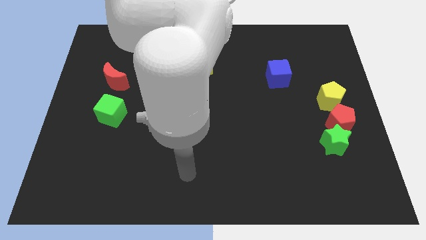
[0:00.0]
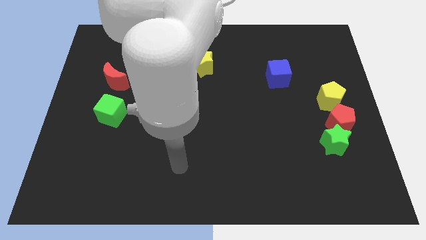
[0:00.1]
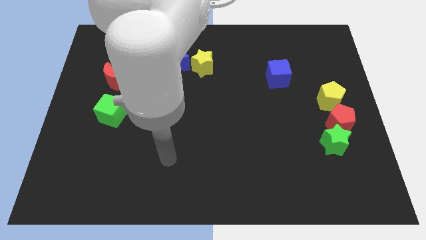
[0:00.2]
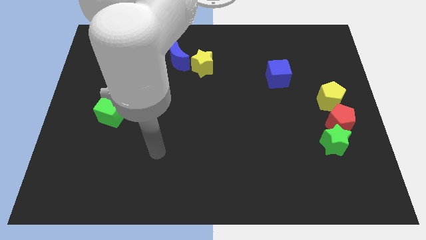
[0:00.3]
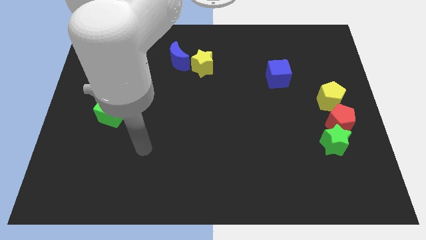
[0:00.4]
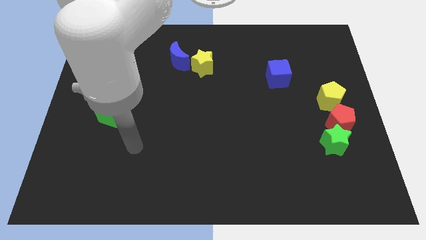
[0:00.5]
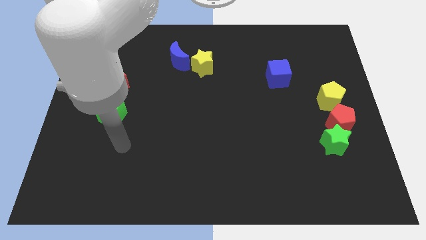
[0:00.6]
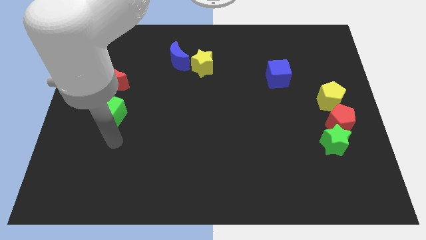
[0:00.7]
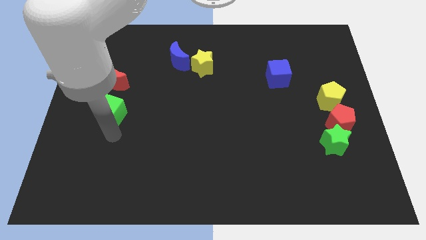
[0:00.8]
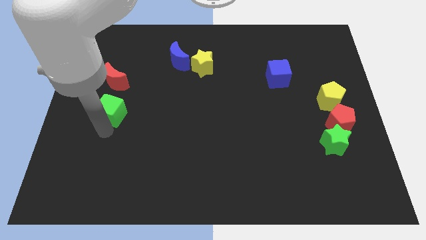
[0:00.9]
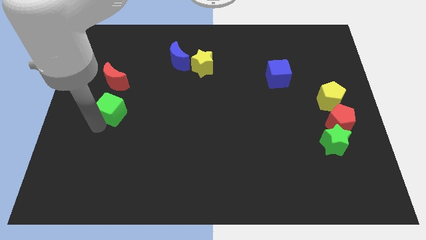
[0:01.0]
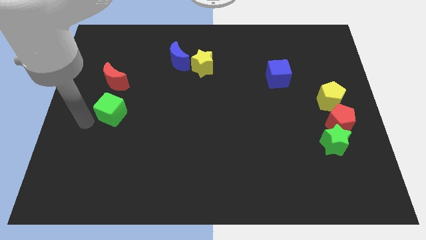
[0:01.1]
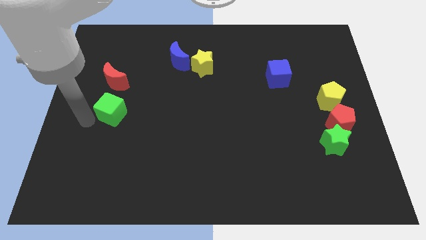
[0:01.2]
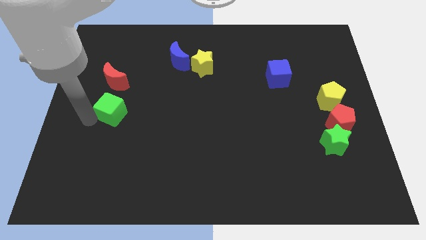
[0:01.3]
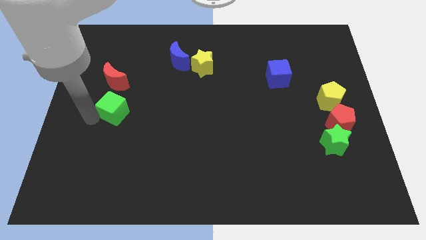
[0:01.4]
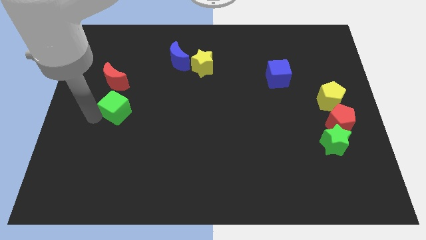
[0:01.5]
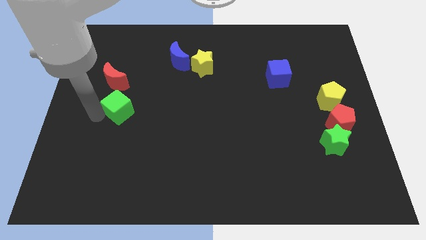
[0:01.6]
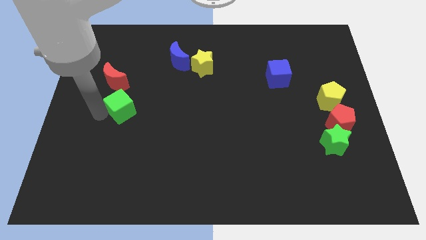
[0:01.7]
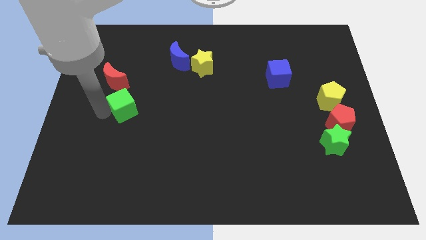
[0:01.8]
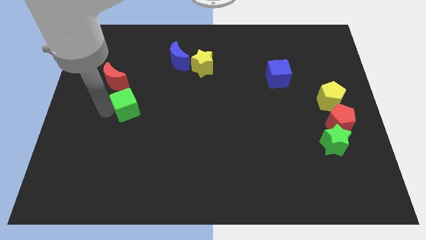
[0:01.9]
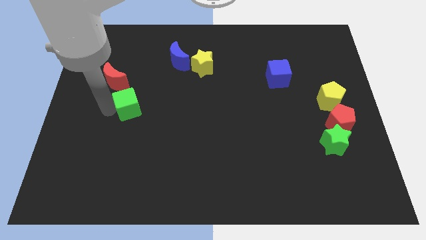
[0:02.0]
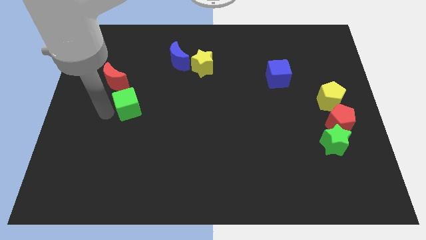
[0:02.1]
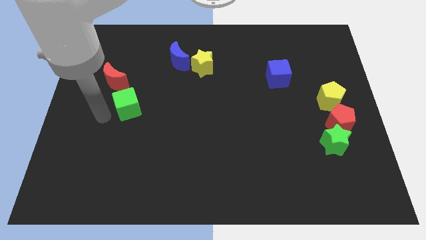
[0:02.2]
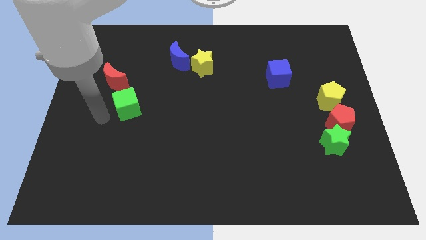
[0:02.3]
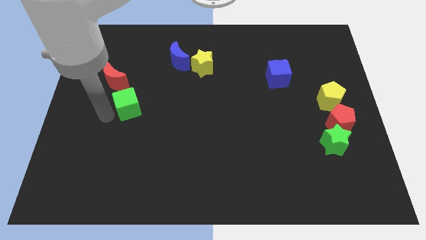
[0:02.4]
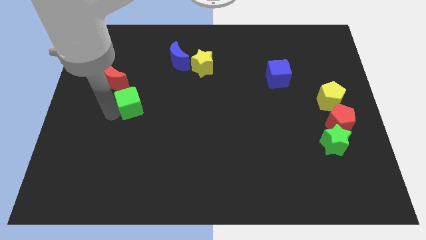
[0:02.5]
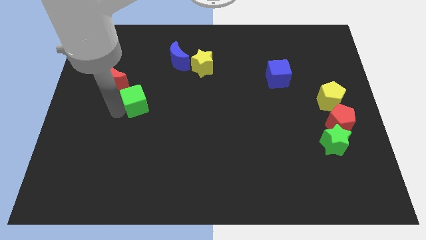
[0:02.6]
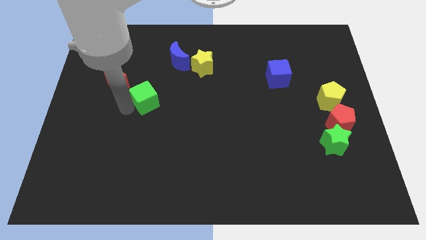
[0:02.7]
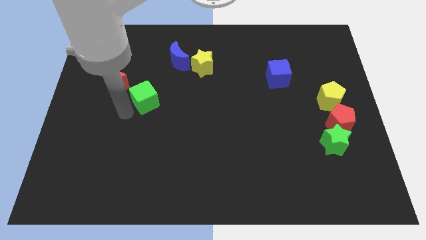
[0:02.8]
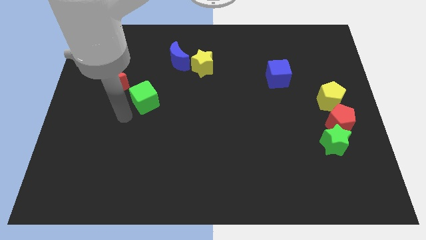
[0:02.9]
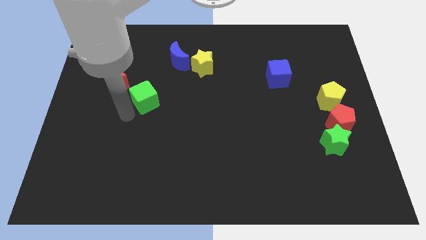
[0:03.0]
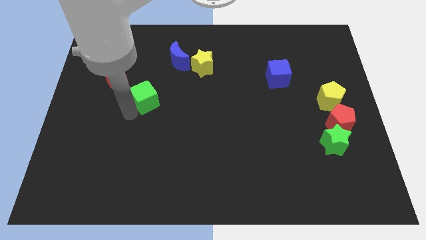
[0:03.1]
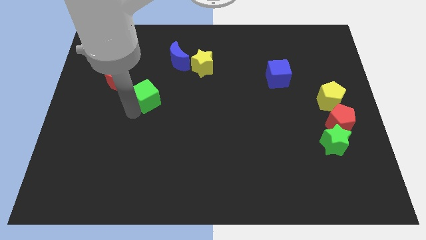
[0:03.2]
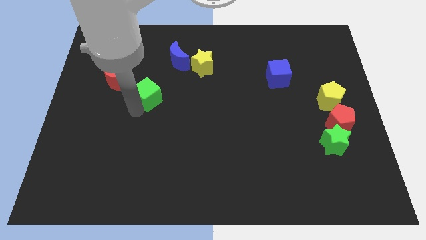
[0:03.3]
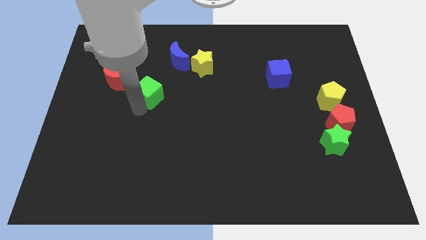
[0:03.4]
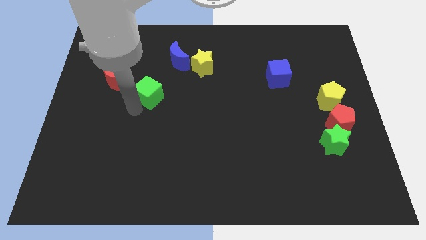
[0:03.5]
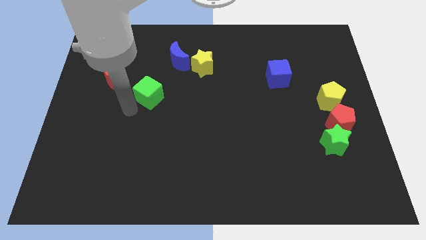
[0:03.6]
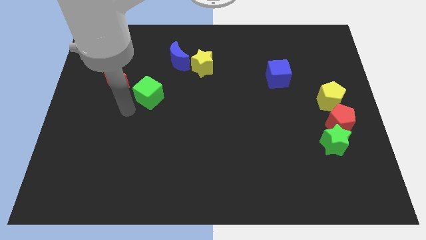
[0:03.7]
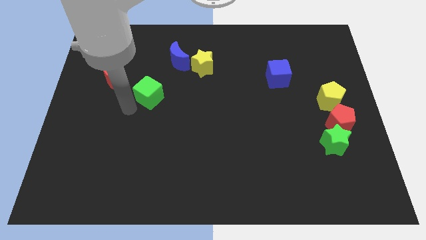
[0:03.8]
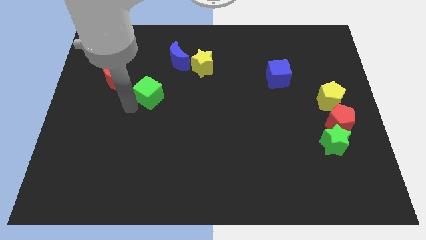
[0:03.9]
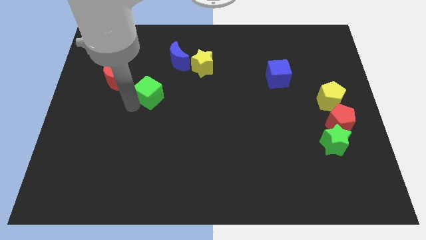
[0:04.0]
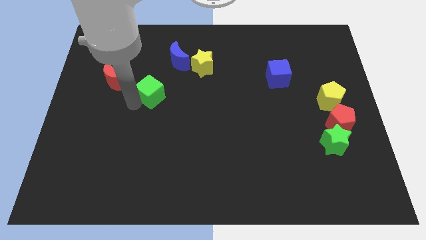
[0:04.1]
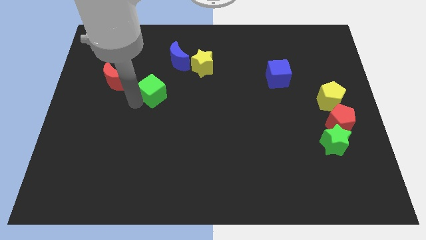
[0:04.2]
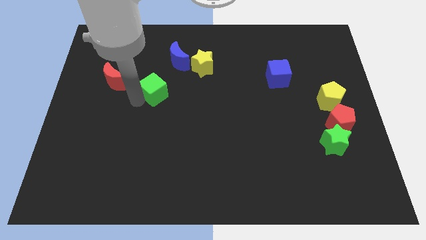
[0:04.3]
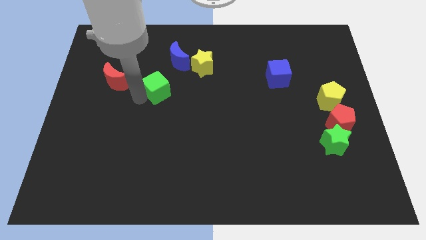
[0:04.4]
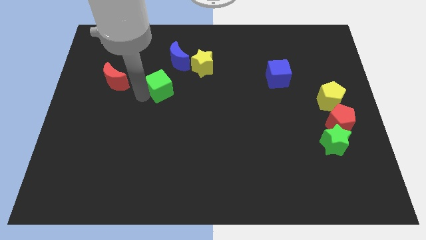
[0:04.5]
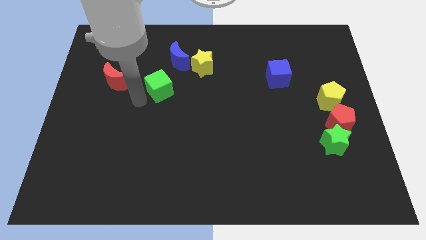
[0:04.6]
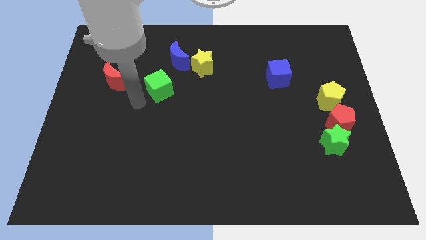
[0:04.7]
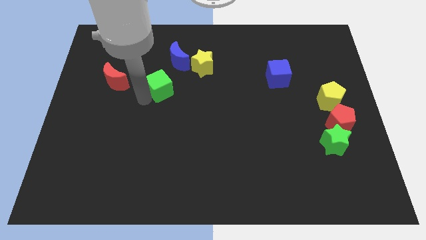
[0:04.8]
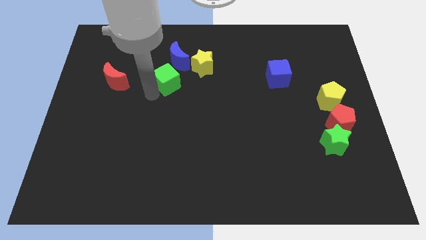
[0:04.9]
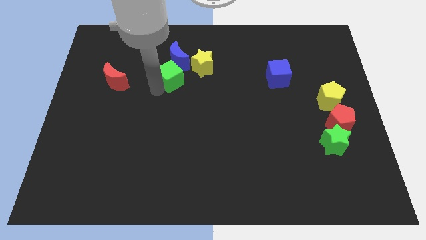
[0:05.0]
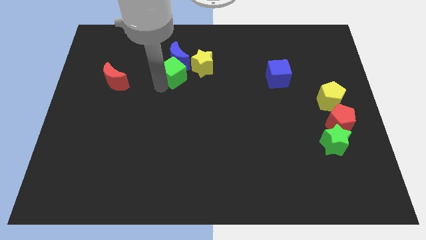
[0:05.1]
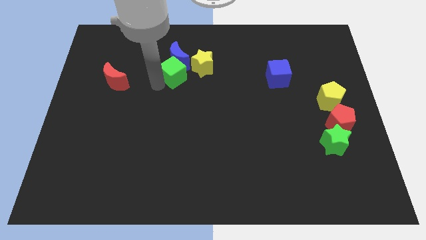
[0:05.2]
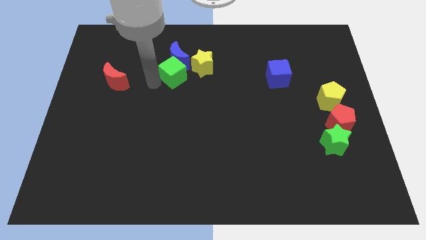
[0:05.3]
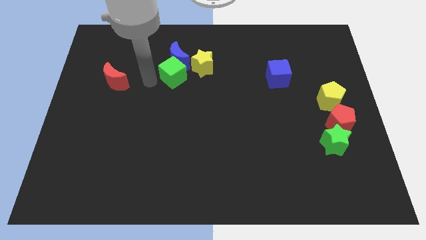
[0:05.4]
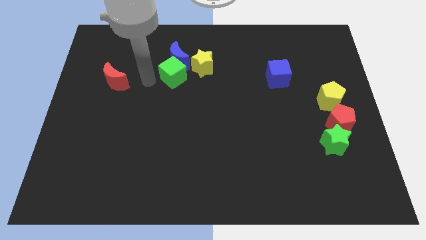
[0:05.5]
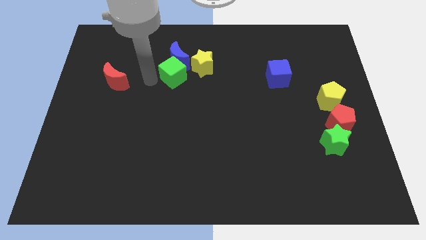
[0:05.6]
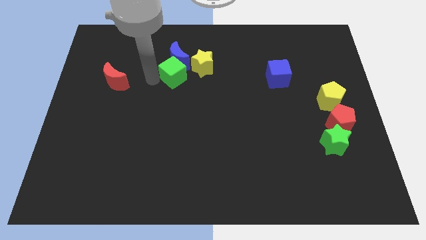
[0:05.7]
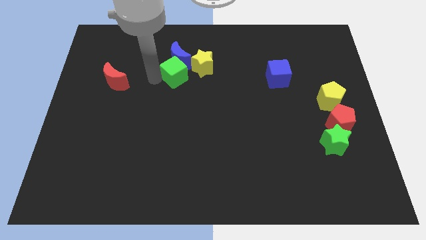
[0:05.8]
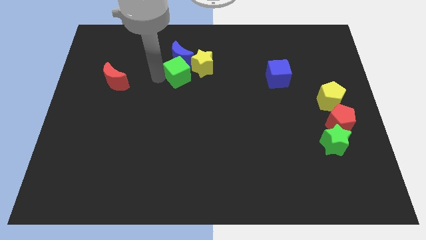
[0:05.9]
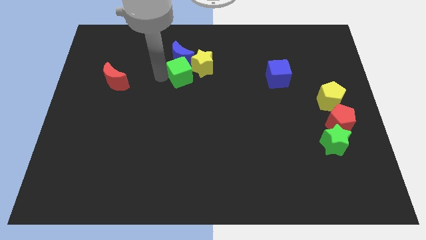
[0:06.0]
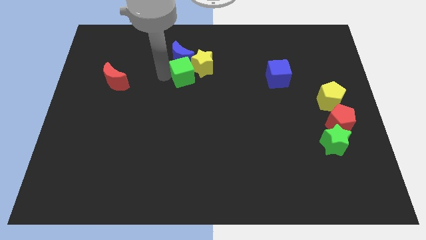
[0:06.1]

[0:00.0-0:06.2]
move the green cube towards the yellow star

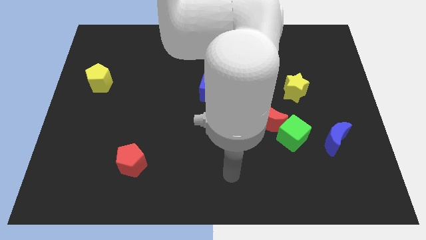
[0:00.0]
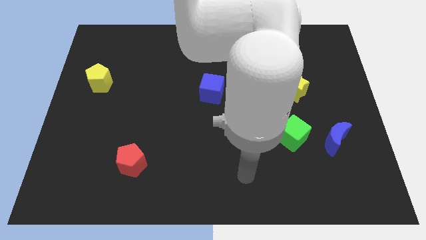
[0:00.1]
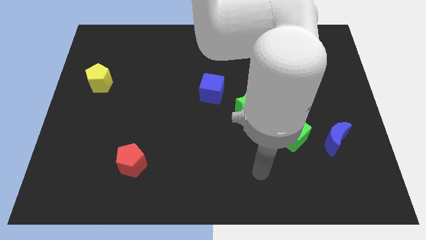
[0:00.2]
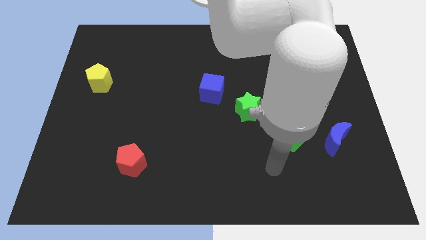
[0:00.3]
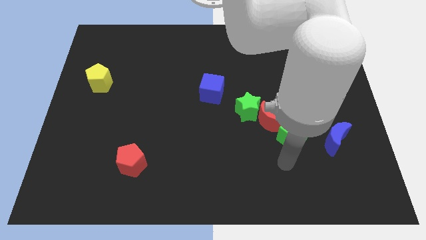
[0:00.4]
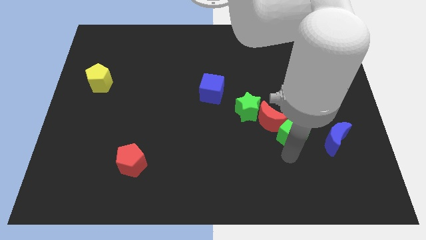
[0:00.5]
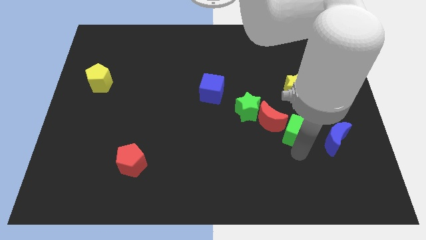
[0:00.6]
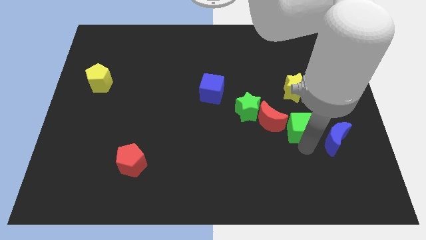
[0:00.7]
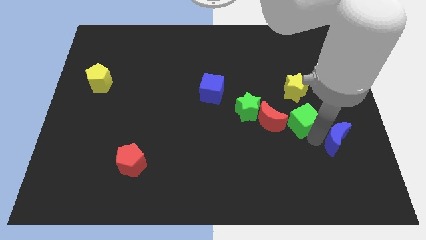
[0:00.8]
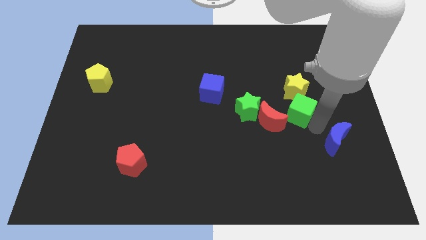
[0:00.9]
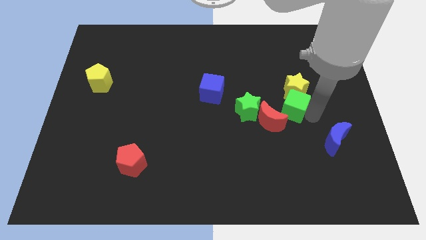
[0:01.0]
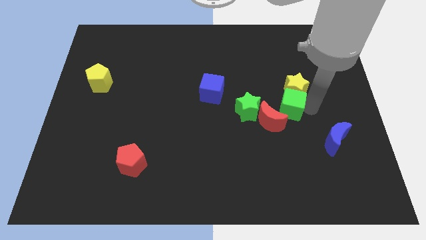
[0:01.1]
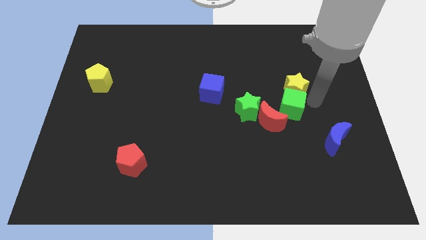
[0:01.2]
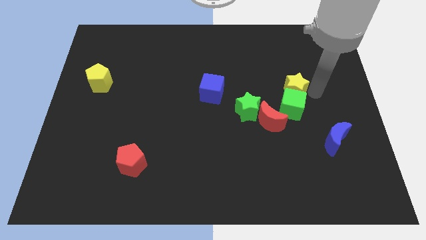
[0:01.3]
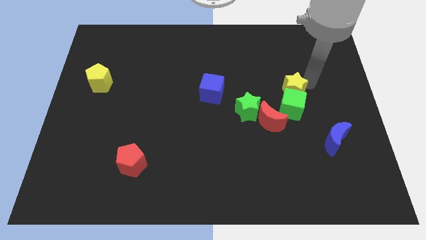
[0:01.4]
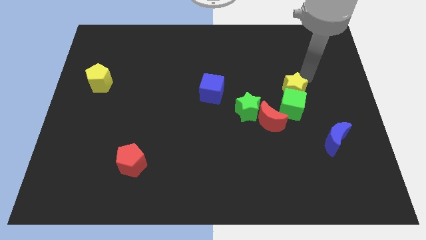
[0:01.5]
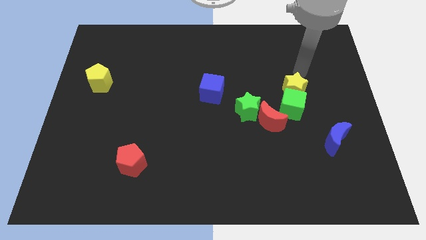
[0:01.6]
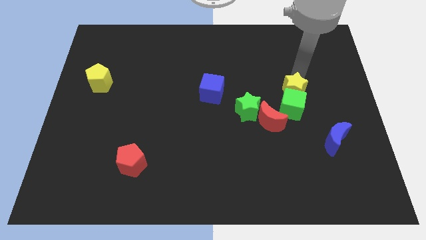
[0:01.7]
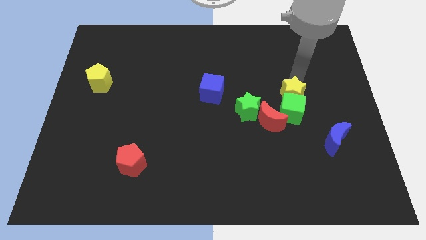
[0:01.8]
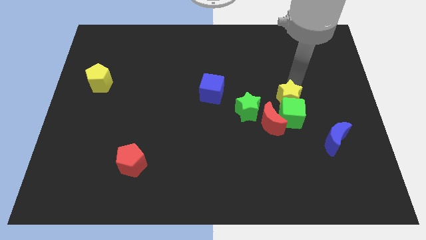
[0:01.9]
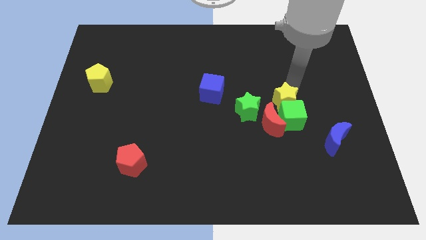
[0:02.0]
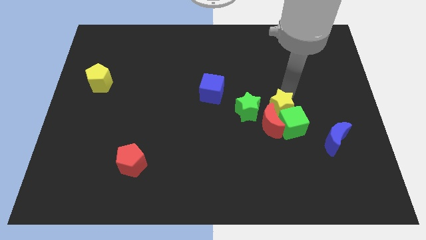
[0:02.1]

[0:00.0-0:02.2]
push the yellow star close to the red moon
